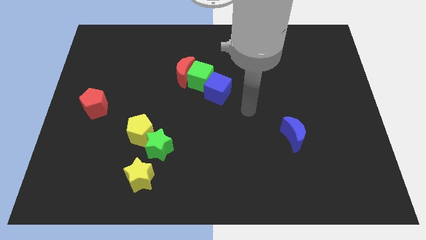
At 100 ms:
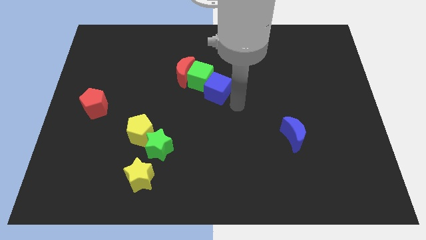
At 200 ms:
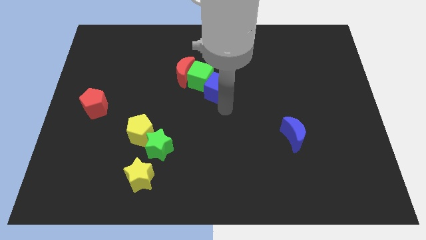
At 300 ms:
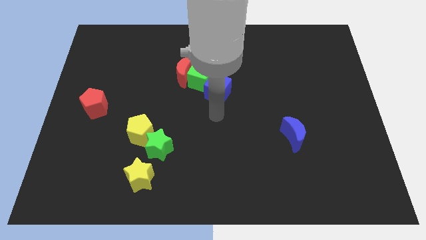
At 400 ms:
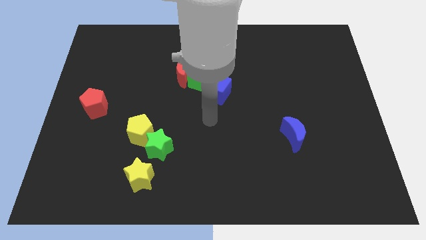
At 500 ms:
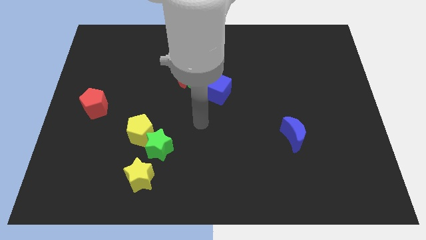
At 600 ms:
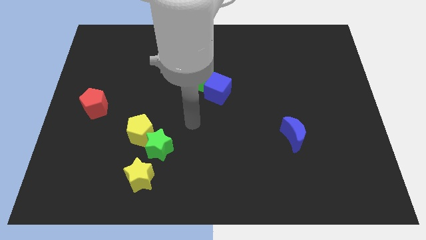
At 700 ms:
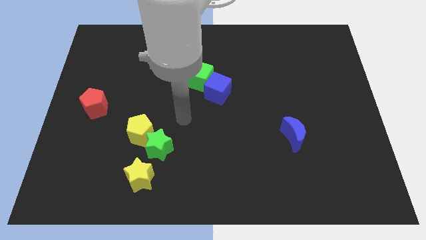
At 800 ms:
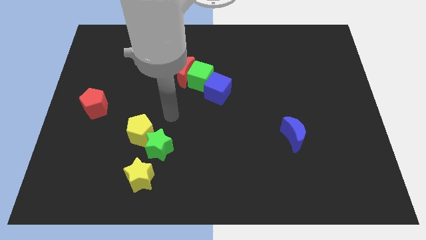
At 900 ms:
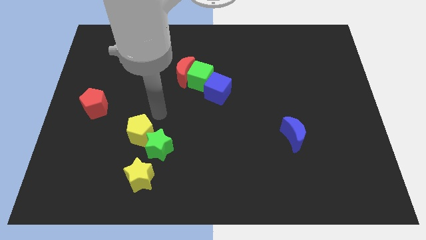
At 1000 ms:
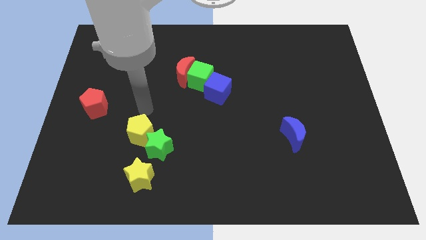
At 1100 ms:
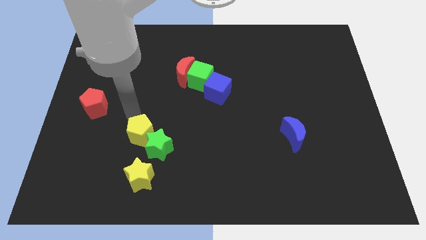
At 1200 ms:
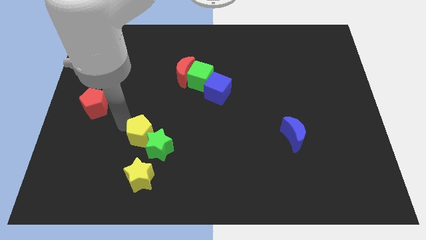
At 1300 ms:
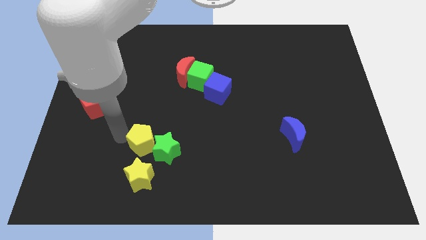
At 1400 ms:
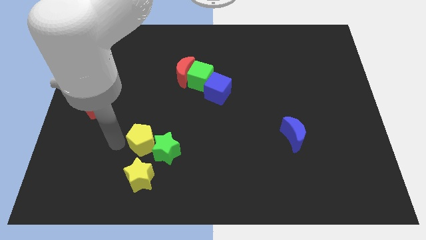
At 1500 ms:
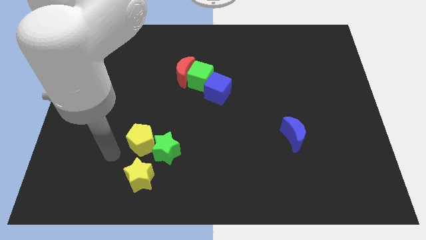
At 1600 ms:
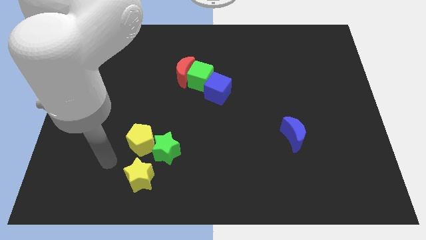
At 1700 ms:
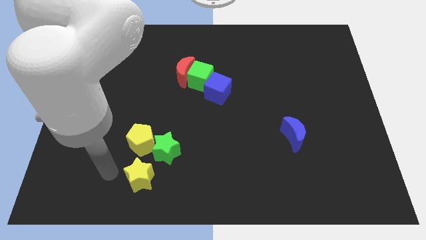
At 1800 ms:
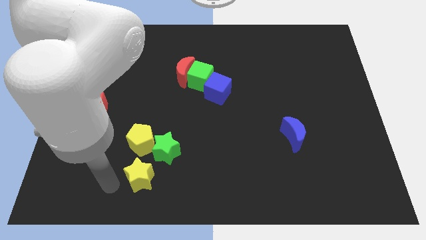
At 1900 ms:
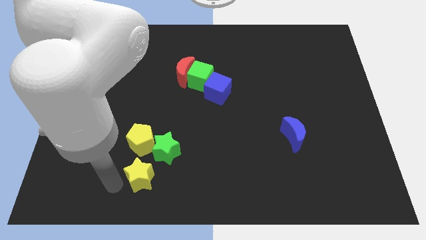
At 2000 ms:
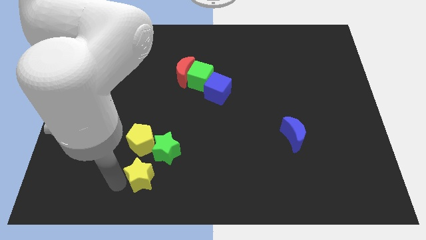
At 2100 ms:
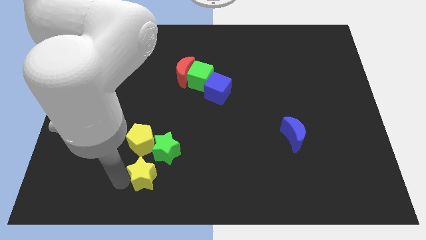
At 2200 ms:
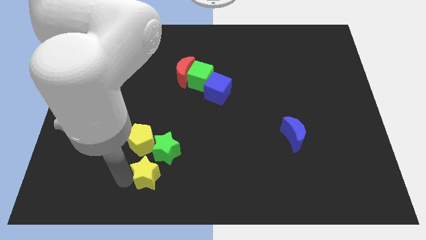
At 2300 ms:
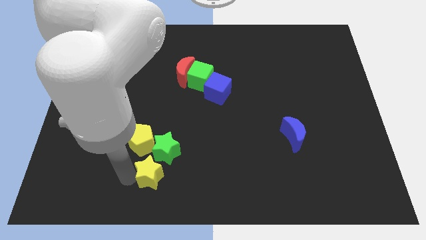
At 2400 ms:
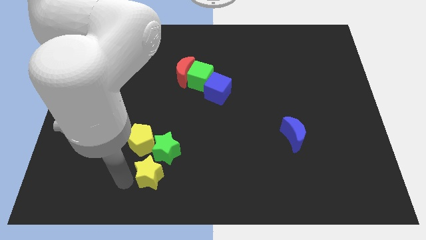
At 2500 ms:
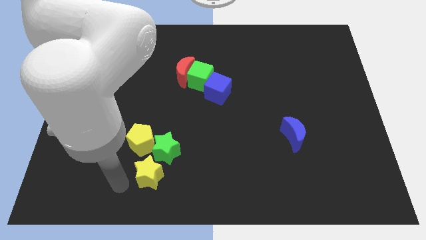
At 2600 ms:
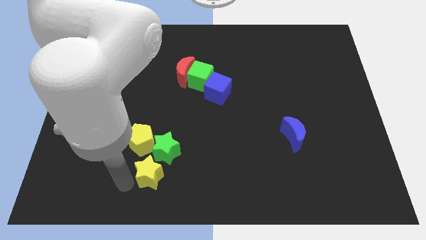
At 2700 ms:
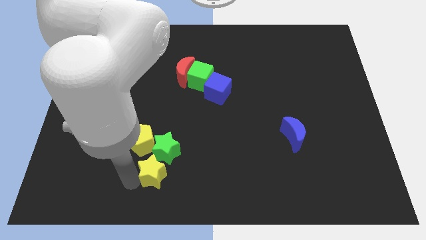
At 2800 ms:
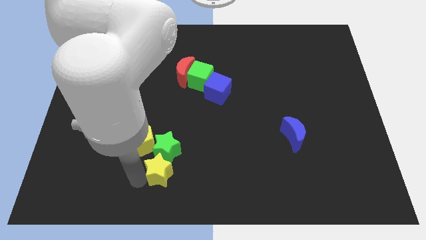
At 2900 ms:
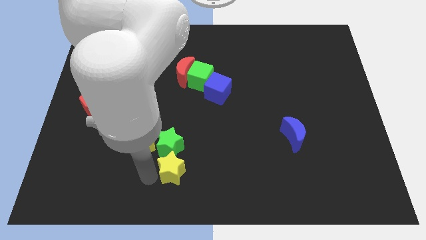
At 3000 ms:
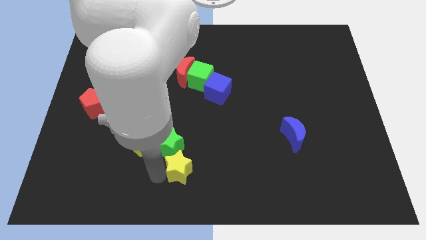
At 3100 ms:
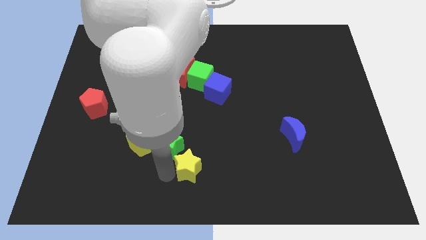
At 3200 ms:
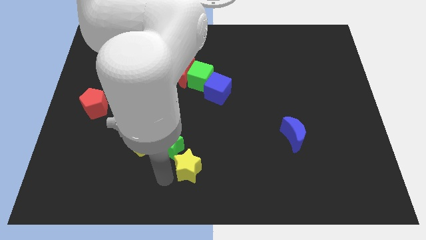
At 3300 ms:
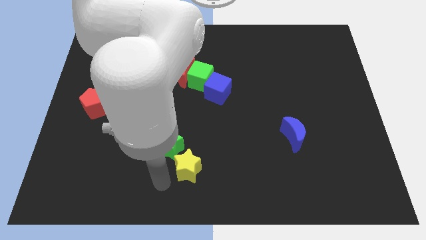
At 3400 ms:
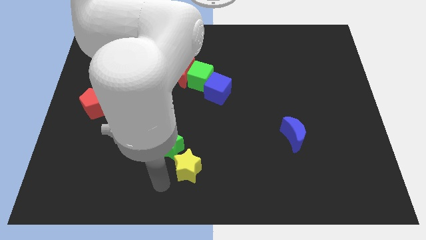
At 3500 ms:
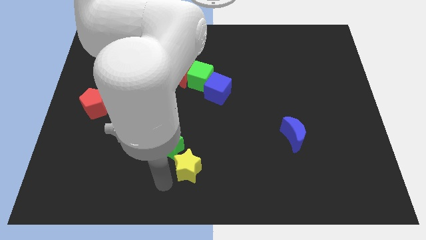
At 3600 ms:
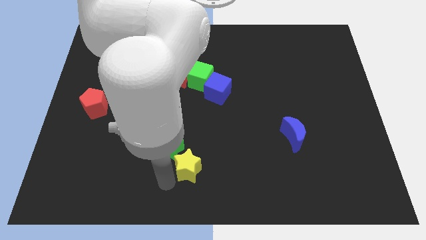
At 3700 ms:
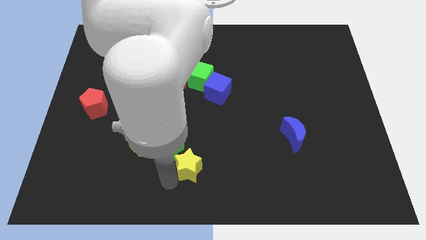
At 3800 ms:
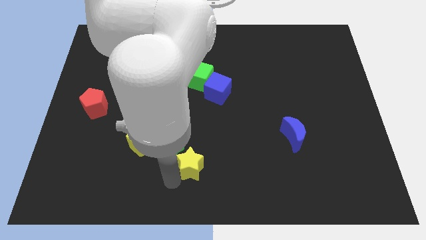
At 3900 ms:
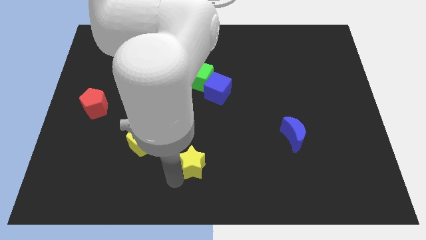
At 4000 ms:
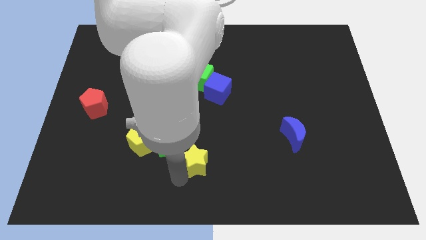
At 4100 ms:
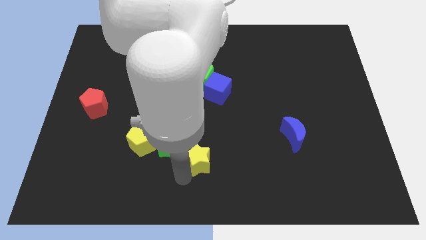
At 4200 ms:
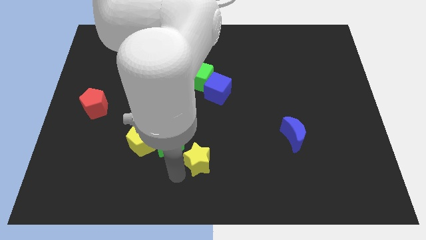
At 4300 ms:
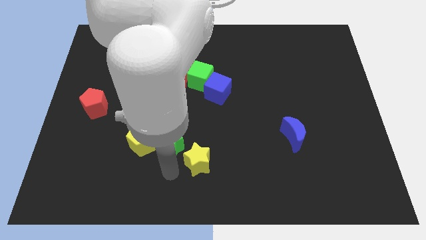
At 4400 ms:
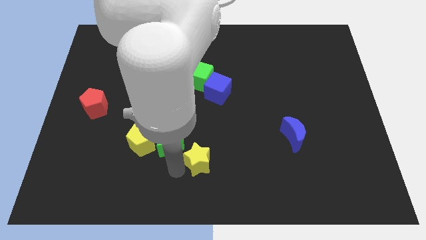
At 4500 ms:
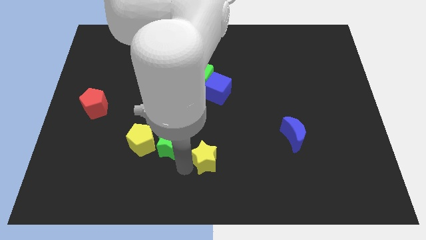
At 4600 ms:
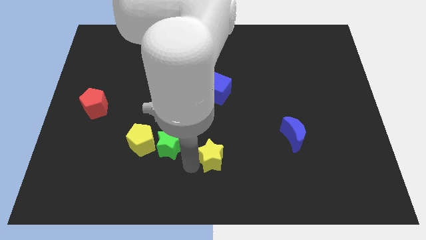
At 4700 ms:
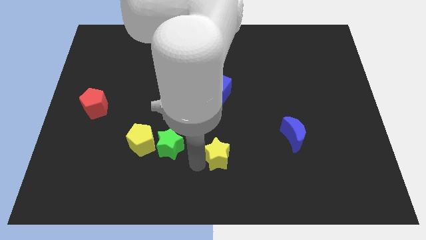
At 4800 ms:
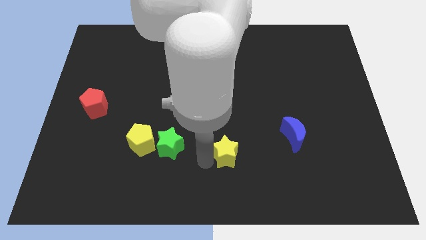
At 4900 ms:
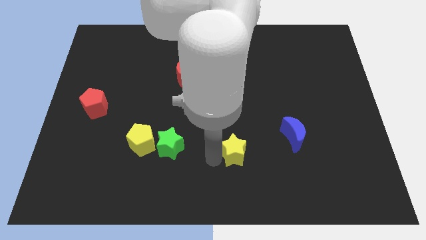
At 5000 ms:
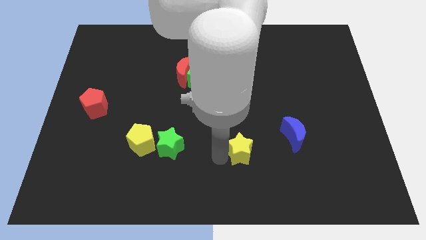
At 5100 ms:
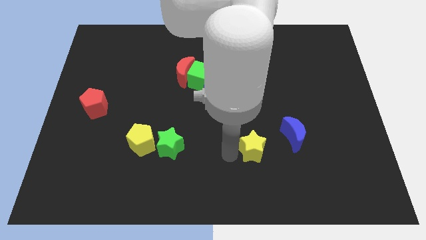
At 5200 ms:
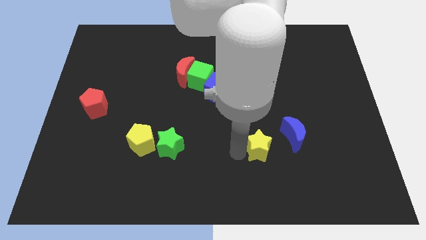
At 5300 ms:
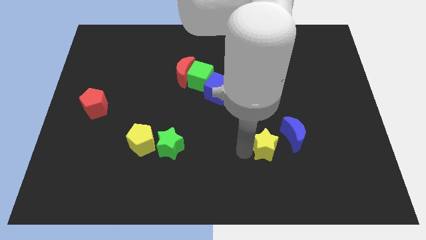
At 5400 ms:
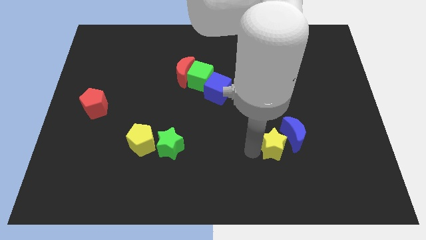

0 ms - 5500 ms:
push the yellow star next to the blue moon

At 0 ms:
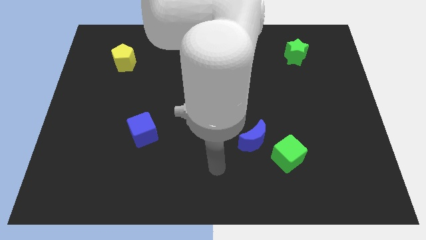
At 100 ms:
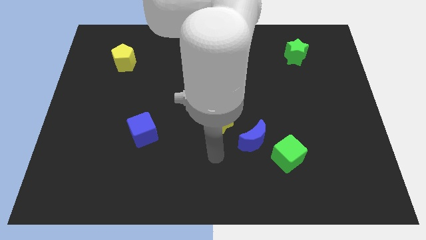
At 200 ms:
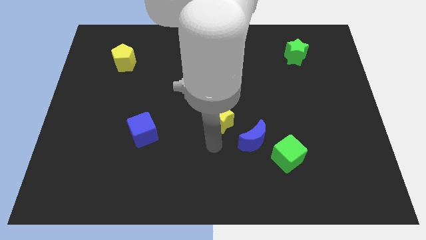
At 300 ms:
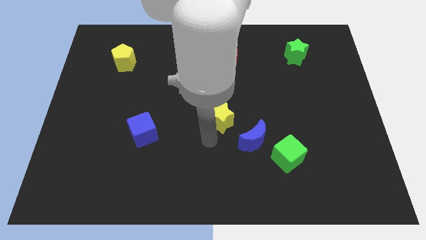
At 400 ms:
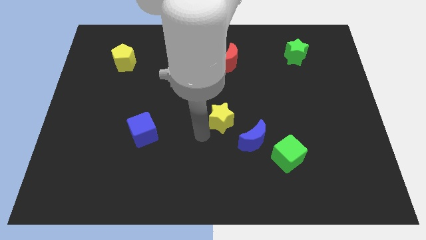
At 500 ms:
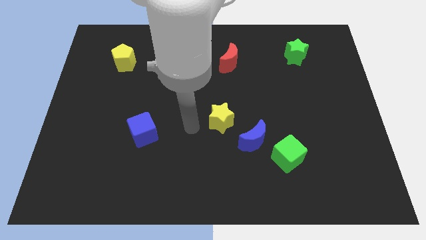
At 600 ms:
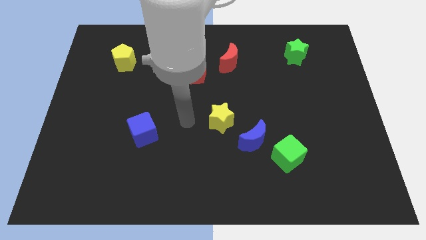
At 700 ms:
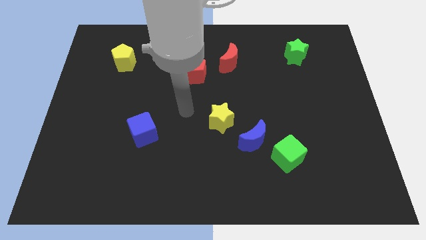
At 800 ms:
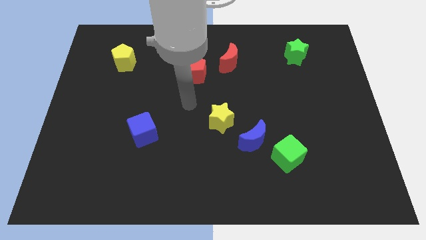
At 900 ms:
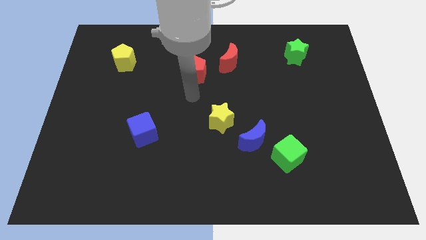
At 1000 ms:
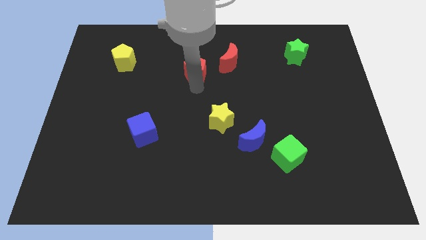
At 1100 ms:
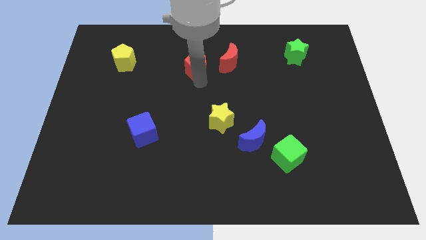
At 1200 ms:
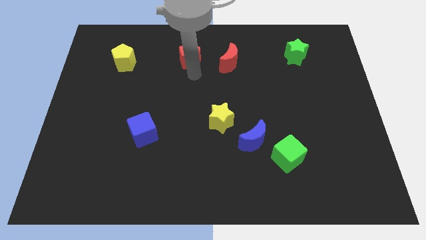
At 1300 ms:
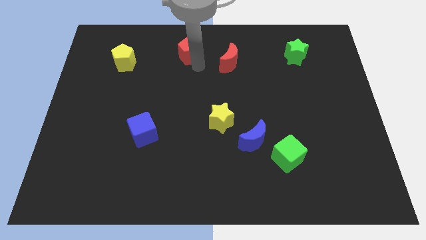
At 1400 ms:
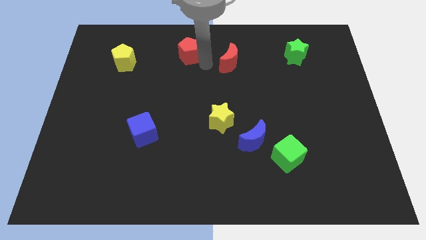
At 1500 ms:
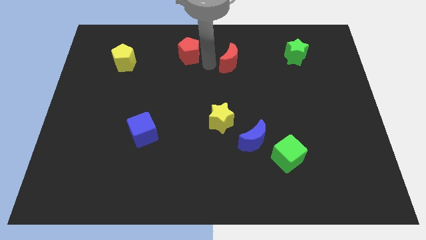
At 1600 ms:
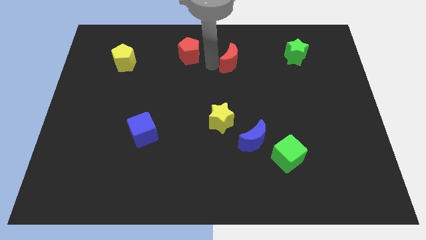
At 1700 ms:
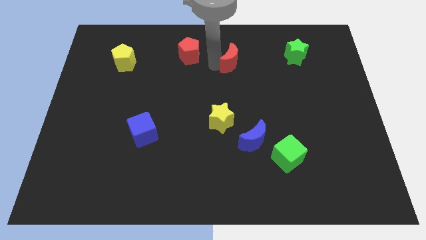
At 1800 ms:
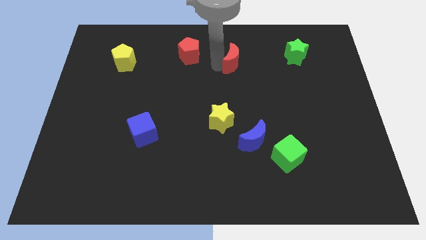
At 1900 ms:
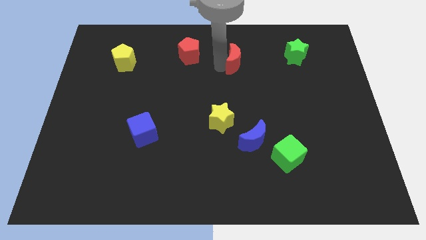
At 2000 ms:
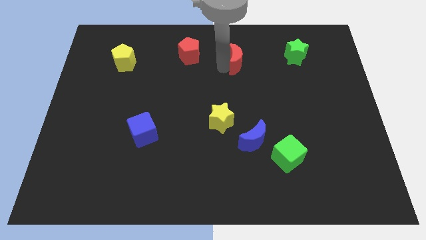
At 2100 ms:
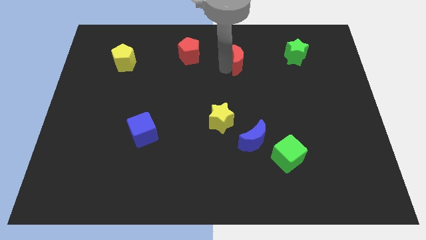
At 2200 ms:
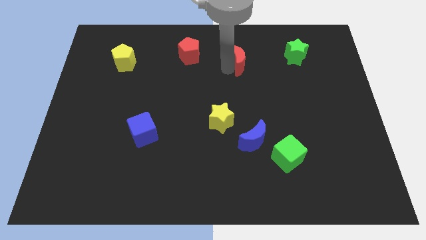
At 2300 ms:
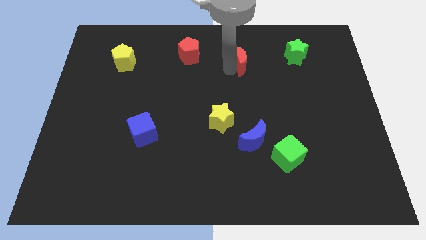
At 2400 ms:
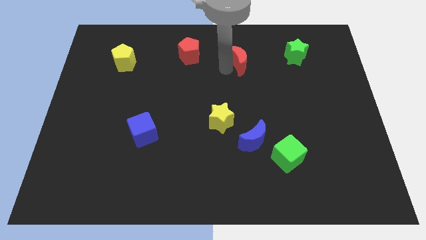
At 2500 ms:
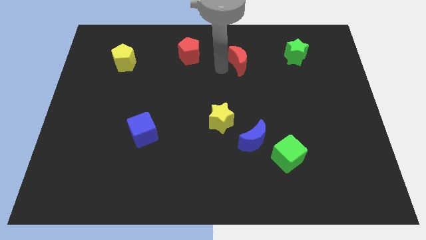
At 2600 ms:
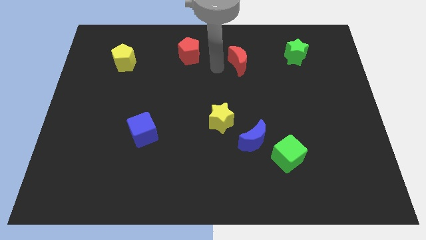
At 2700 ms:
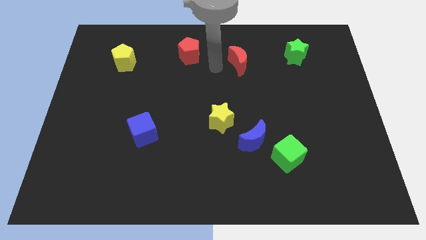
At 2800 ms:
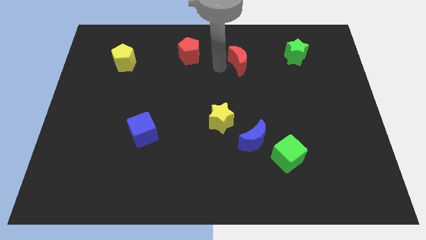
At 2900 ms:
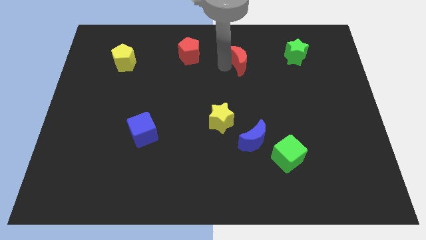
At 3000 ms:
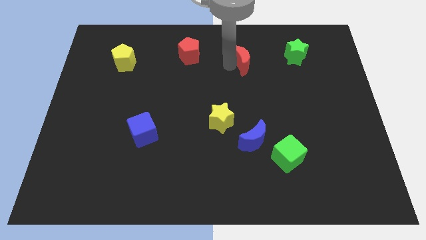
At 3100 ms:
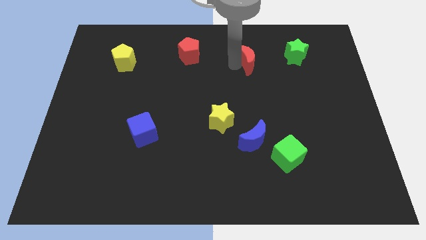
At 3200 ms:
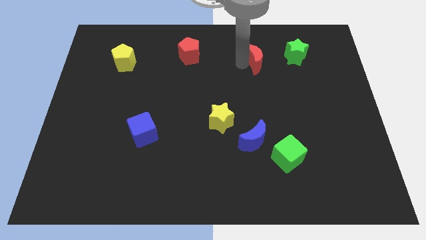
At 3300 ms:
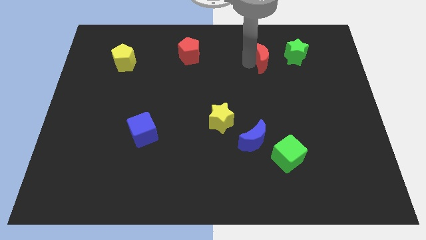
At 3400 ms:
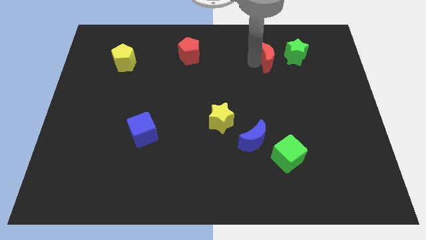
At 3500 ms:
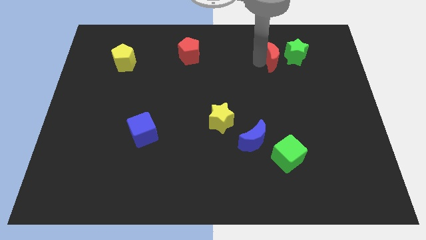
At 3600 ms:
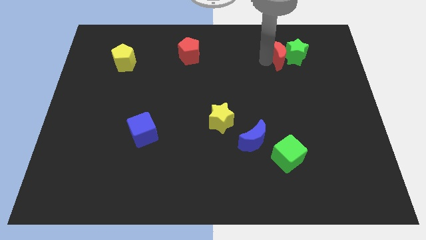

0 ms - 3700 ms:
put the red moon to the green star
